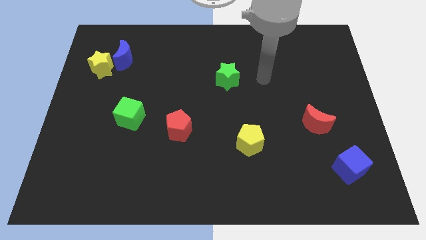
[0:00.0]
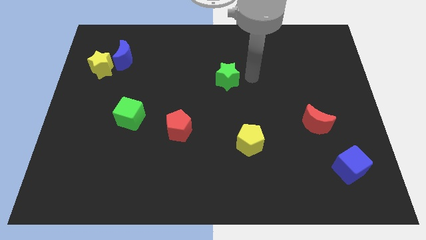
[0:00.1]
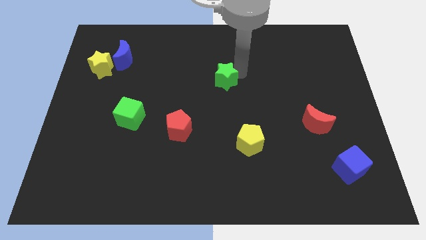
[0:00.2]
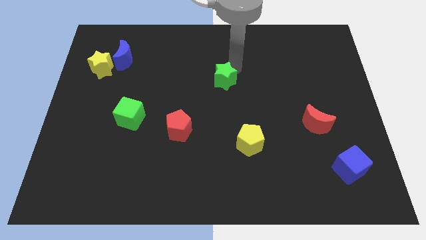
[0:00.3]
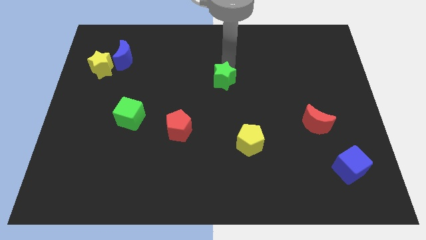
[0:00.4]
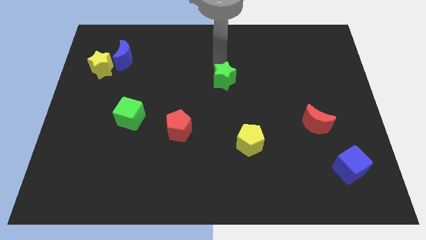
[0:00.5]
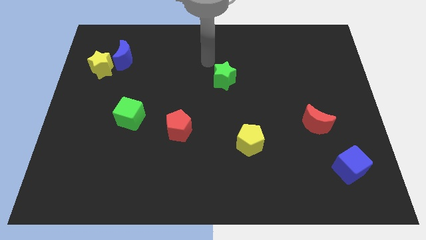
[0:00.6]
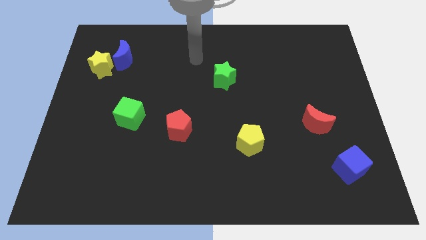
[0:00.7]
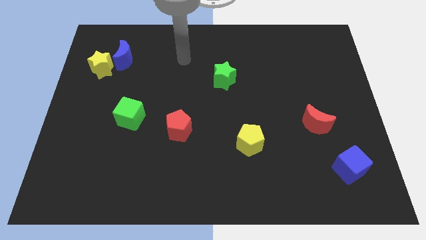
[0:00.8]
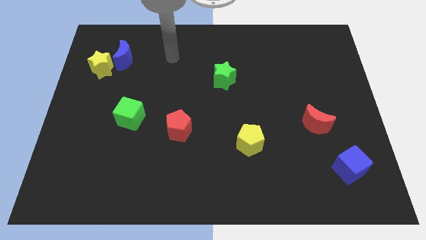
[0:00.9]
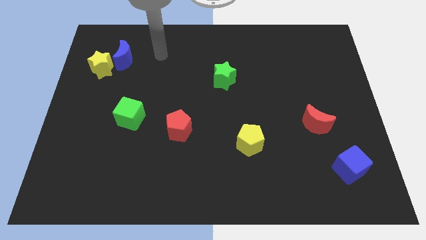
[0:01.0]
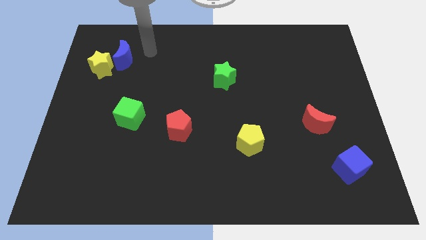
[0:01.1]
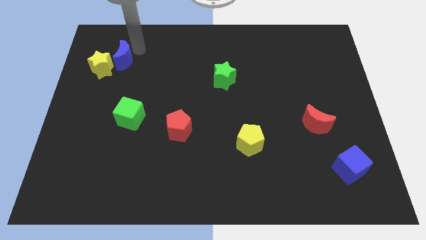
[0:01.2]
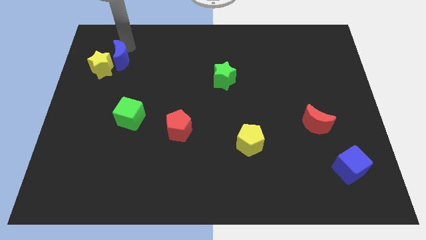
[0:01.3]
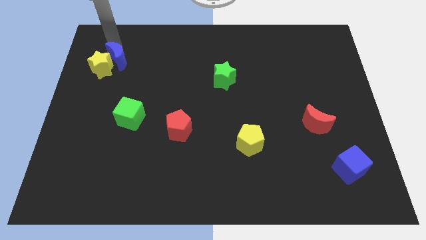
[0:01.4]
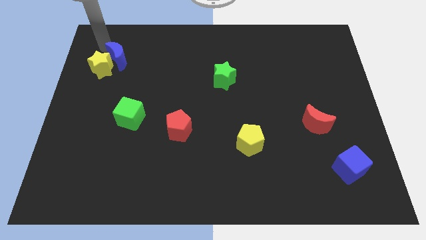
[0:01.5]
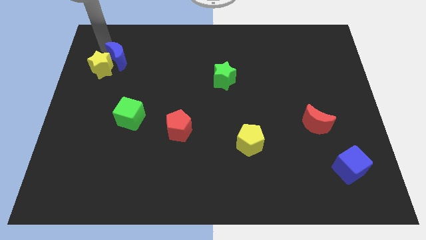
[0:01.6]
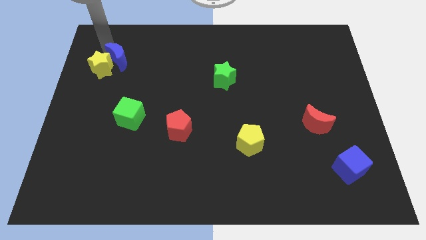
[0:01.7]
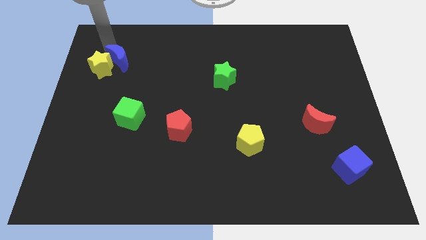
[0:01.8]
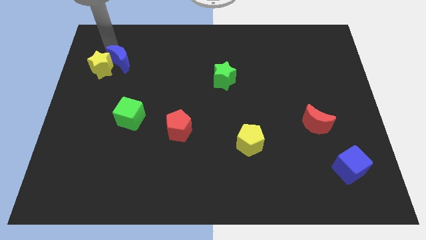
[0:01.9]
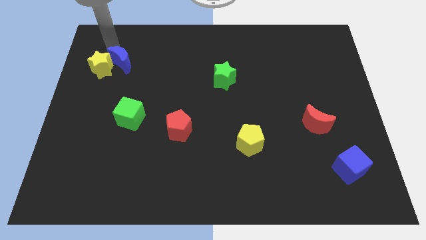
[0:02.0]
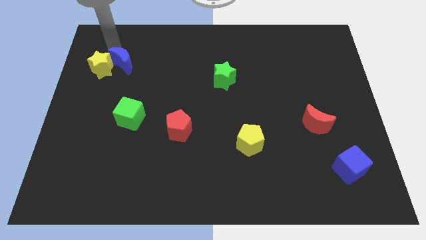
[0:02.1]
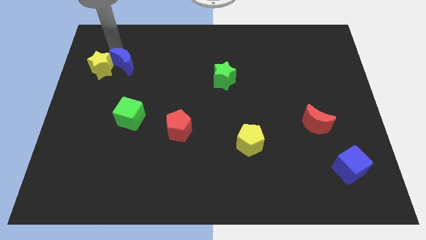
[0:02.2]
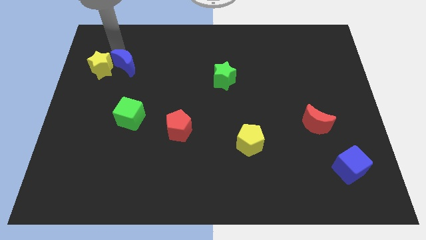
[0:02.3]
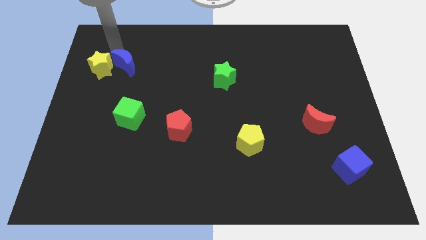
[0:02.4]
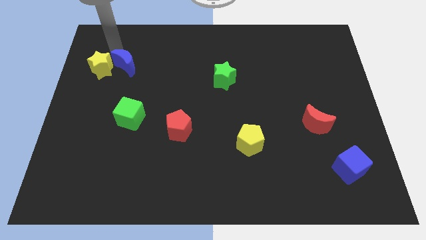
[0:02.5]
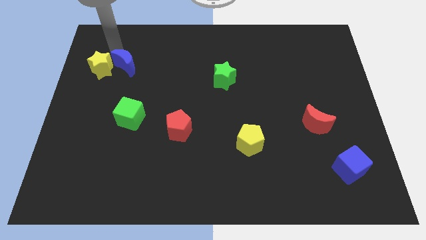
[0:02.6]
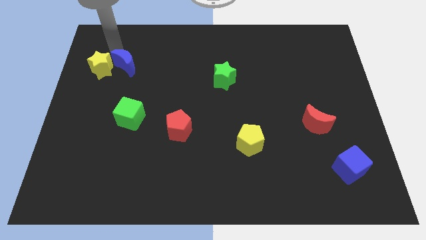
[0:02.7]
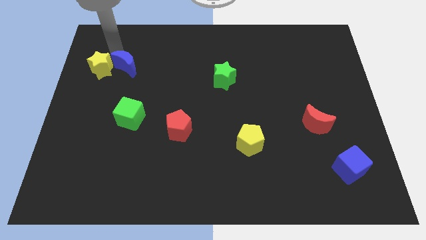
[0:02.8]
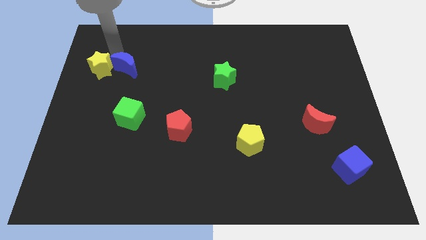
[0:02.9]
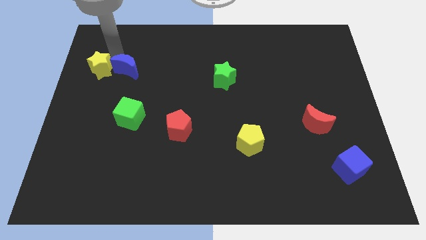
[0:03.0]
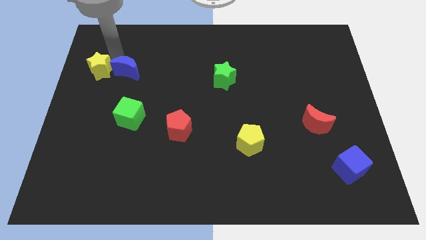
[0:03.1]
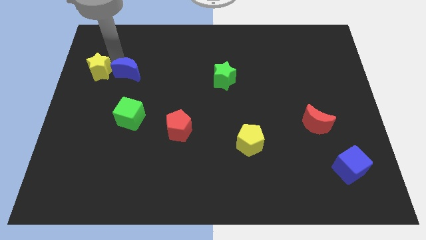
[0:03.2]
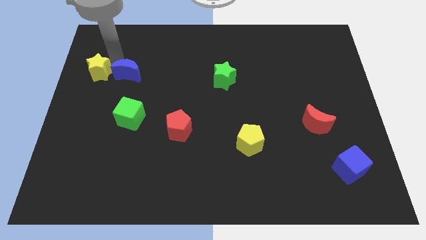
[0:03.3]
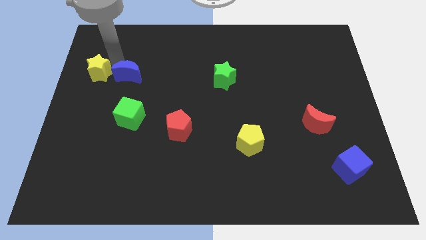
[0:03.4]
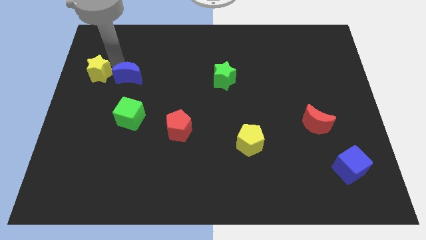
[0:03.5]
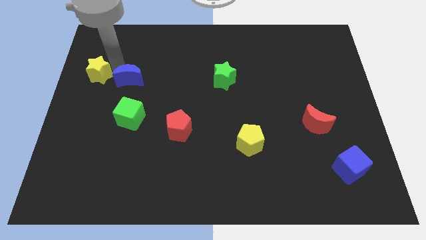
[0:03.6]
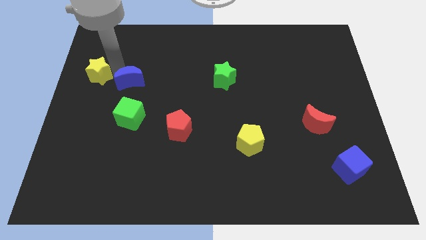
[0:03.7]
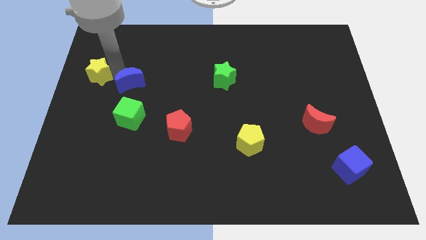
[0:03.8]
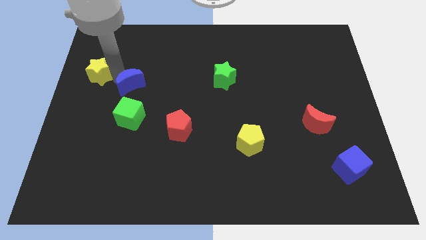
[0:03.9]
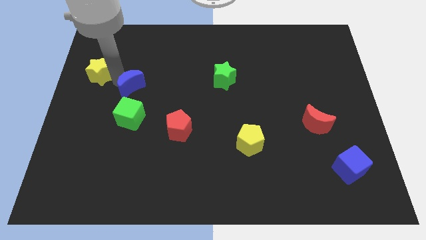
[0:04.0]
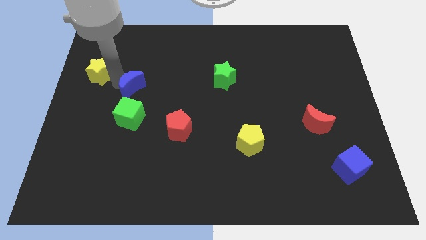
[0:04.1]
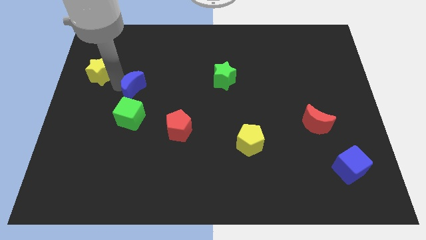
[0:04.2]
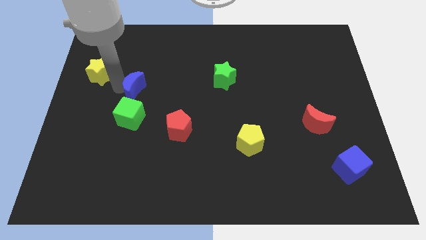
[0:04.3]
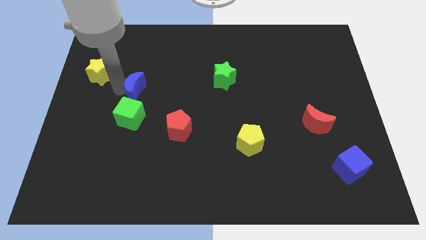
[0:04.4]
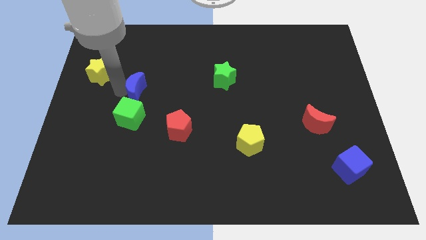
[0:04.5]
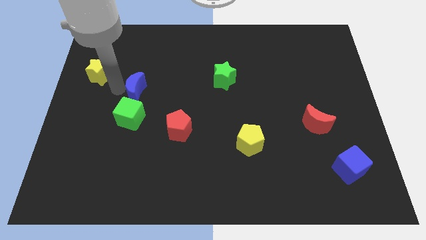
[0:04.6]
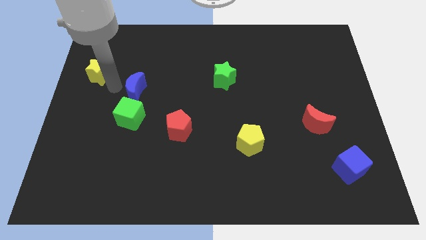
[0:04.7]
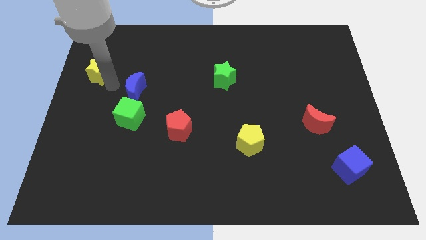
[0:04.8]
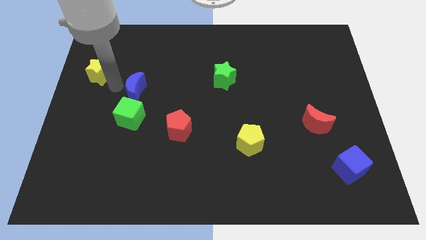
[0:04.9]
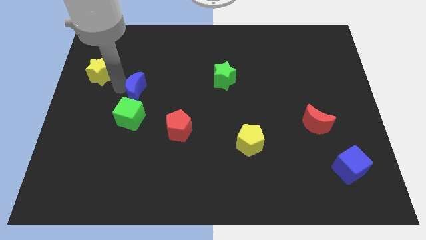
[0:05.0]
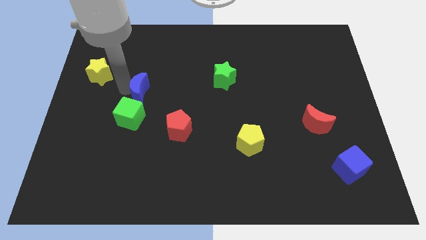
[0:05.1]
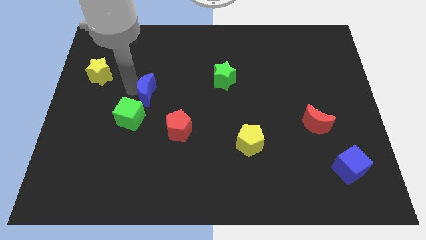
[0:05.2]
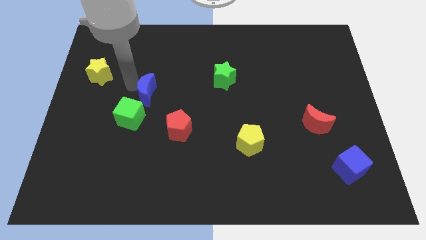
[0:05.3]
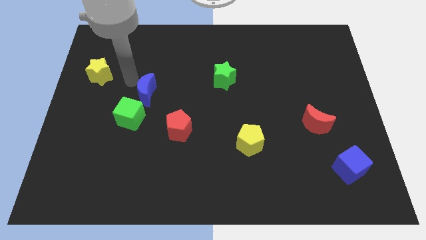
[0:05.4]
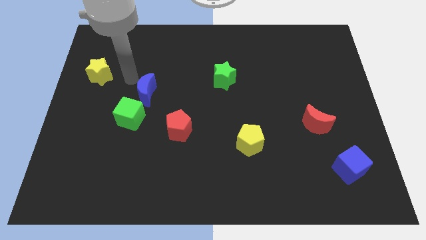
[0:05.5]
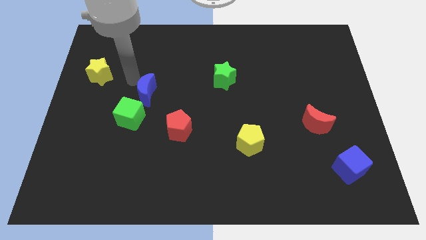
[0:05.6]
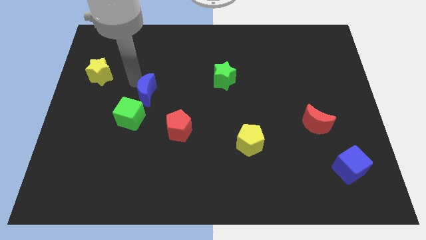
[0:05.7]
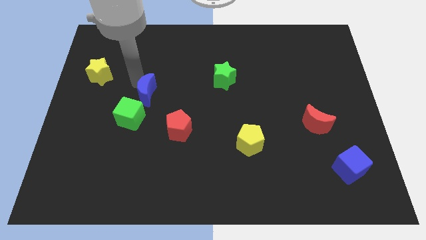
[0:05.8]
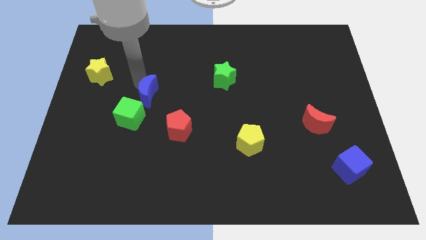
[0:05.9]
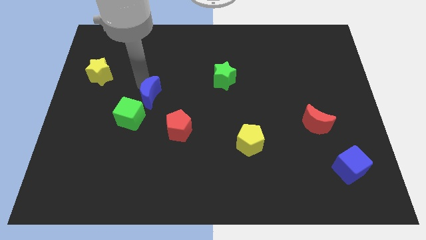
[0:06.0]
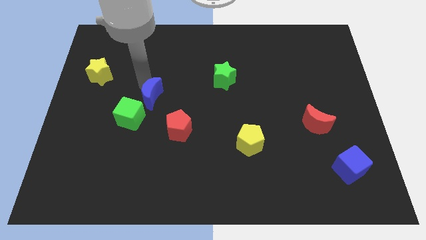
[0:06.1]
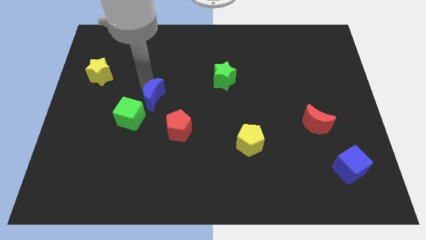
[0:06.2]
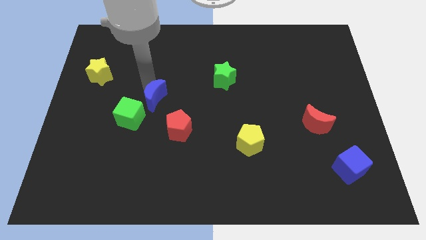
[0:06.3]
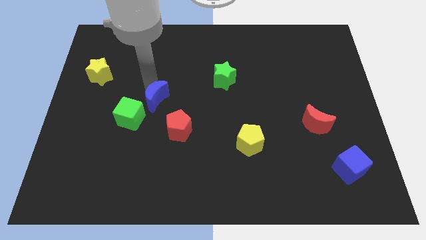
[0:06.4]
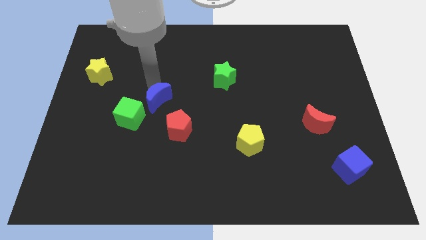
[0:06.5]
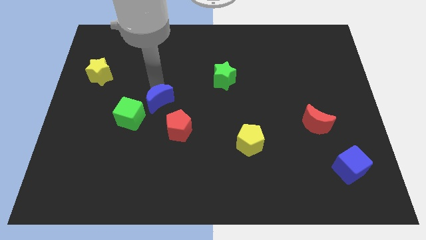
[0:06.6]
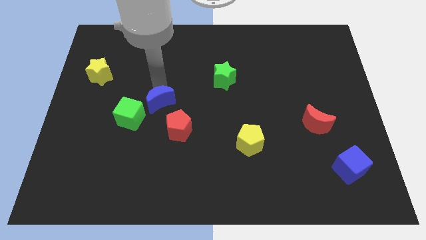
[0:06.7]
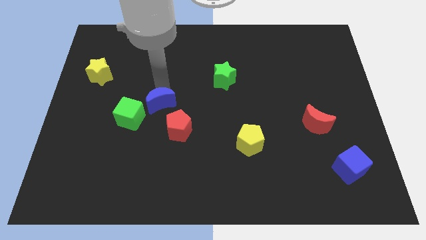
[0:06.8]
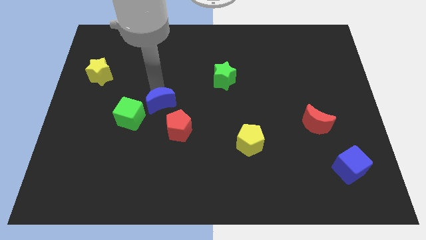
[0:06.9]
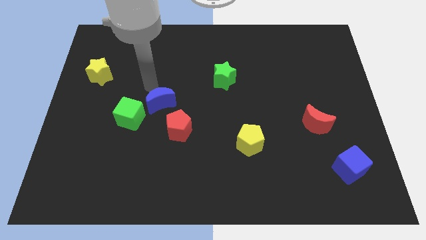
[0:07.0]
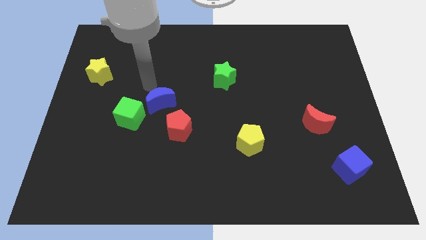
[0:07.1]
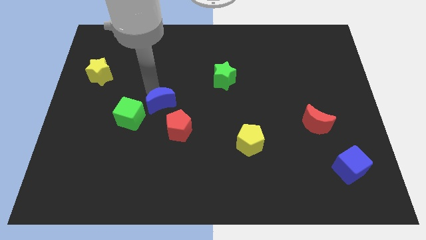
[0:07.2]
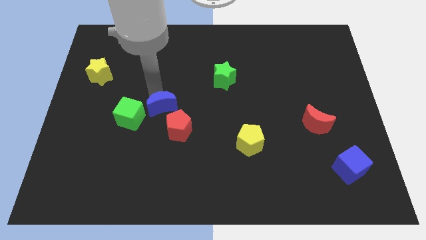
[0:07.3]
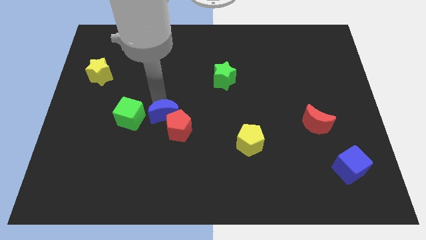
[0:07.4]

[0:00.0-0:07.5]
push the blue moon to the red pentagon

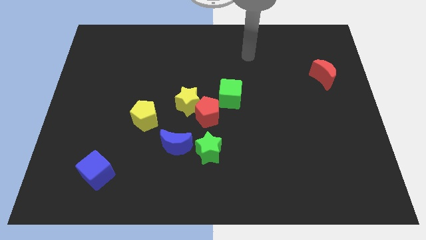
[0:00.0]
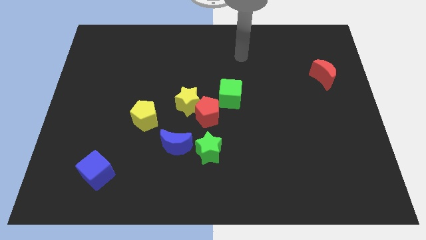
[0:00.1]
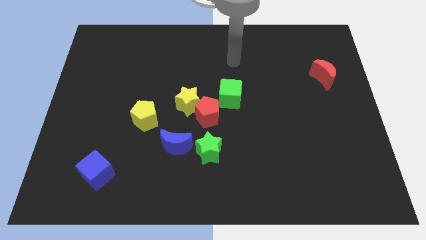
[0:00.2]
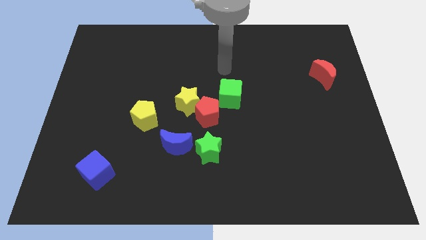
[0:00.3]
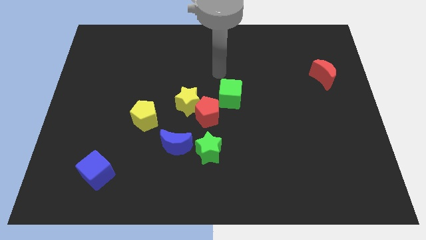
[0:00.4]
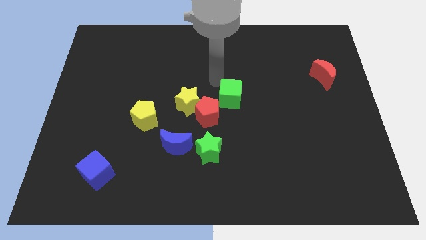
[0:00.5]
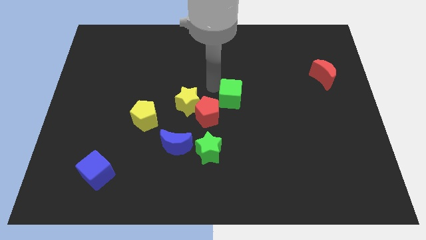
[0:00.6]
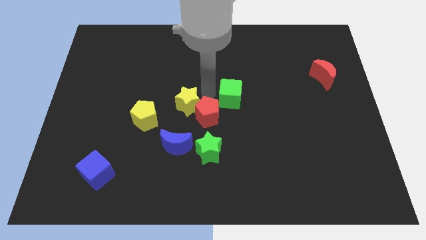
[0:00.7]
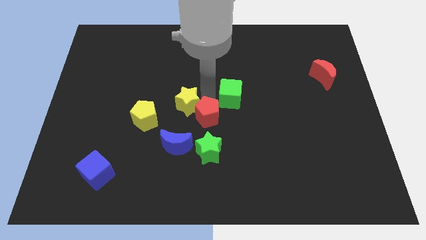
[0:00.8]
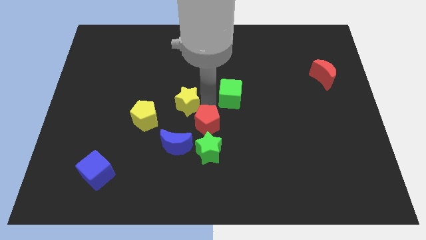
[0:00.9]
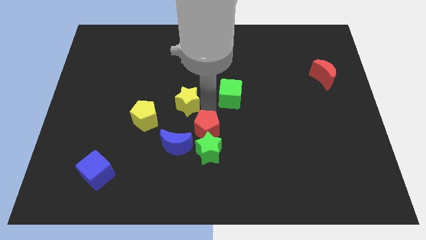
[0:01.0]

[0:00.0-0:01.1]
push the red pentagon next to the green star

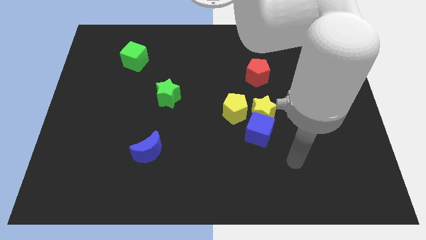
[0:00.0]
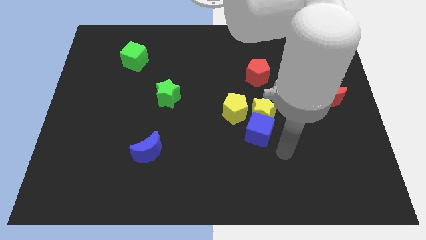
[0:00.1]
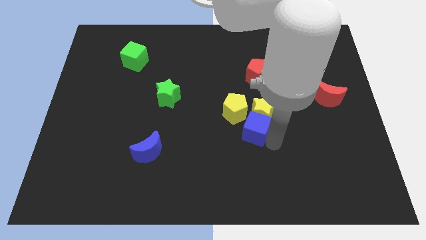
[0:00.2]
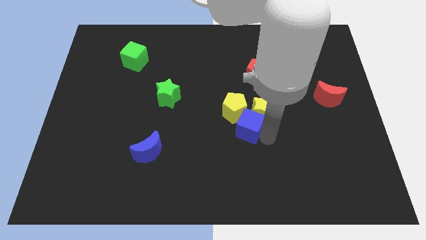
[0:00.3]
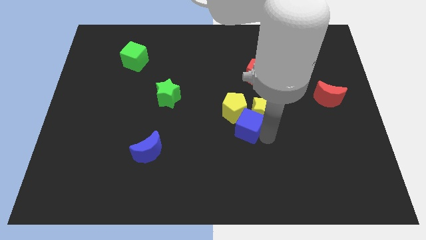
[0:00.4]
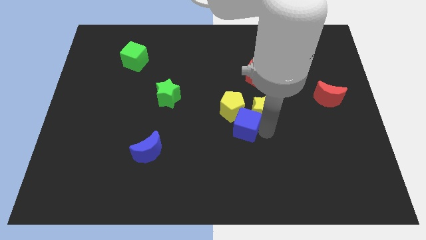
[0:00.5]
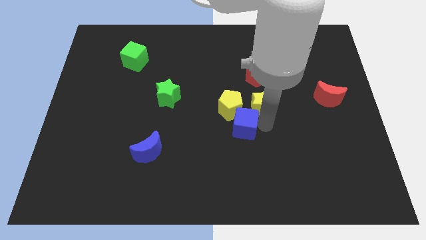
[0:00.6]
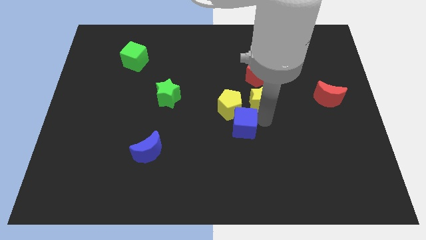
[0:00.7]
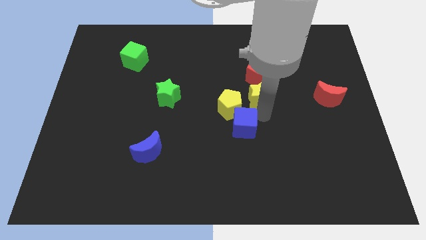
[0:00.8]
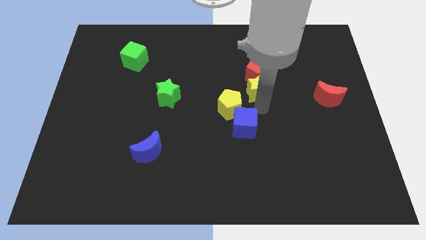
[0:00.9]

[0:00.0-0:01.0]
push the yellow star next to the red pentagon
